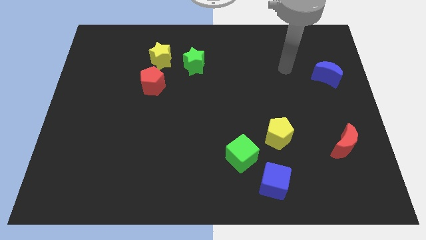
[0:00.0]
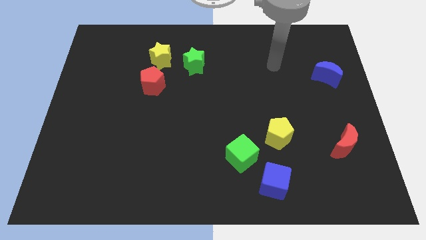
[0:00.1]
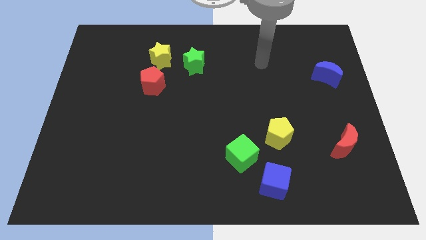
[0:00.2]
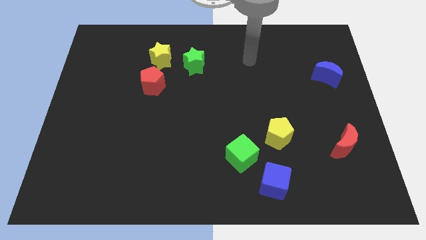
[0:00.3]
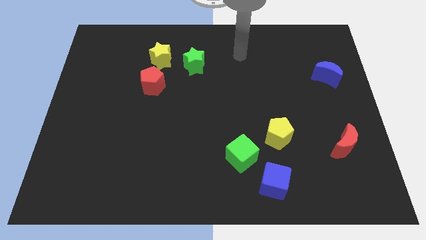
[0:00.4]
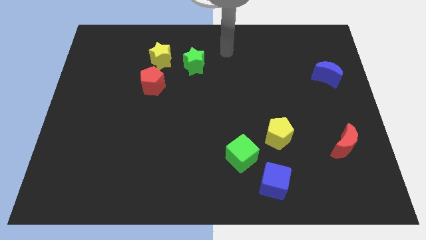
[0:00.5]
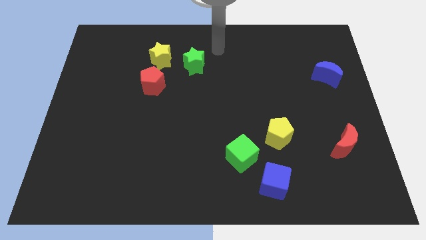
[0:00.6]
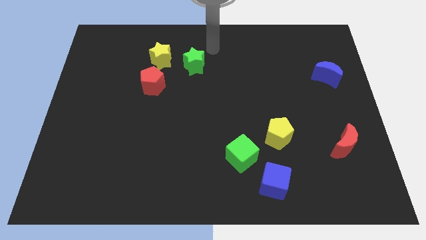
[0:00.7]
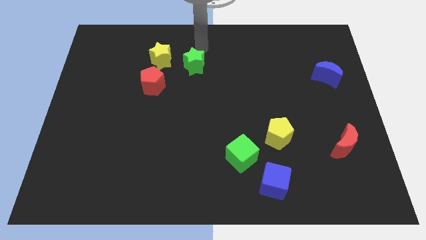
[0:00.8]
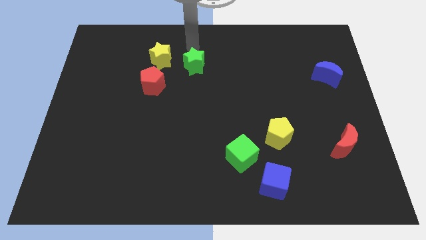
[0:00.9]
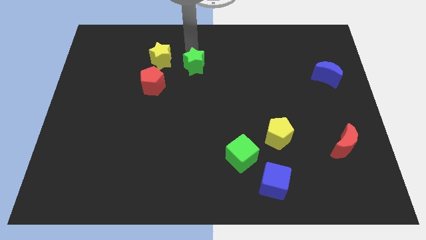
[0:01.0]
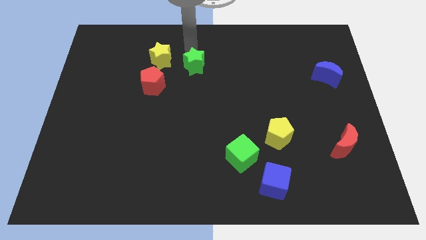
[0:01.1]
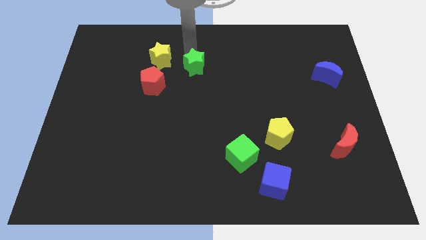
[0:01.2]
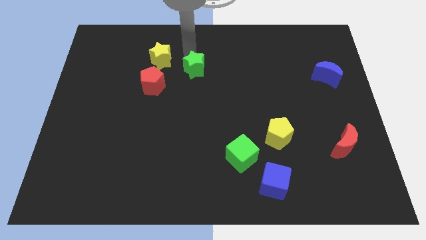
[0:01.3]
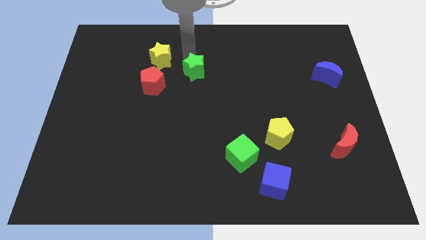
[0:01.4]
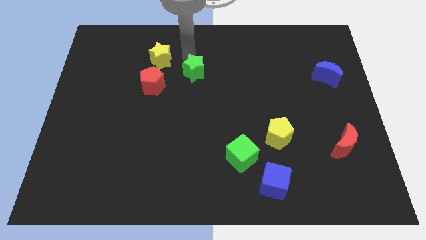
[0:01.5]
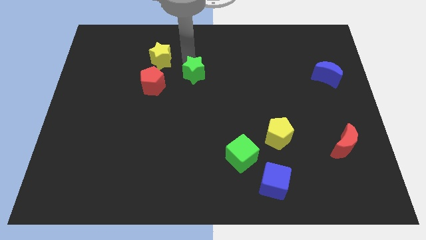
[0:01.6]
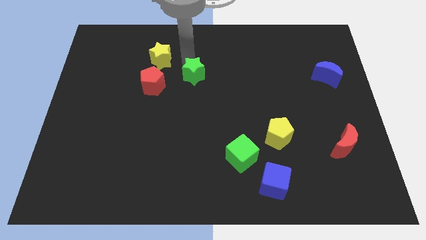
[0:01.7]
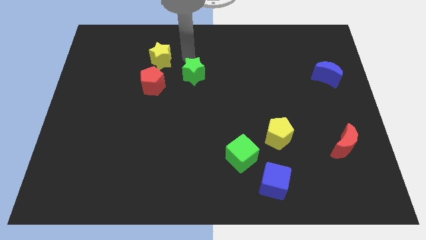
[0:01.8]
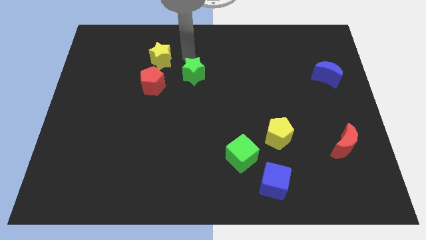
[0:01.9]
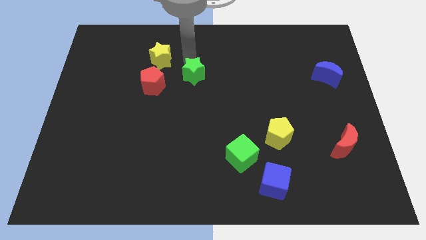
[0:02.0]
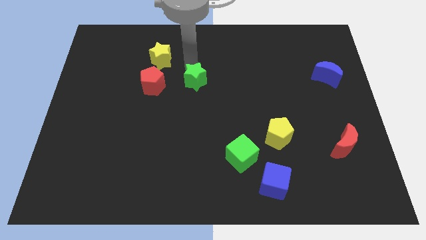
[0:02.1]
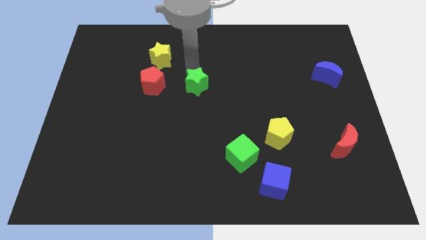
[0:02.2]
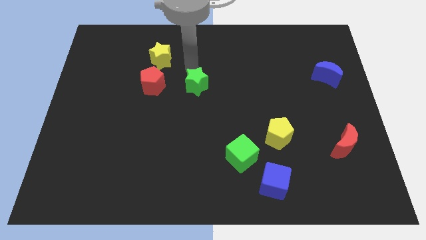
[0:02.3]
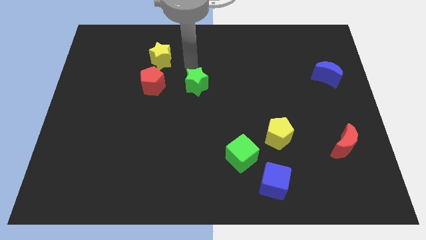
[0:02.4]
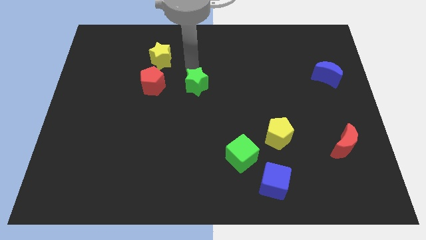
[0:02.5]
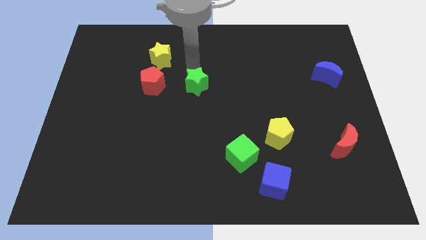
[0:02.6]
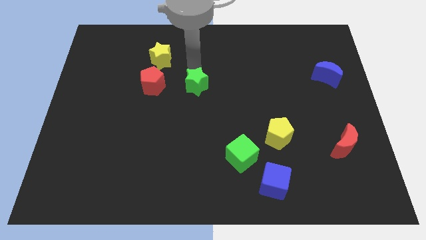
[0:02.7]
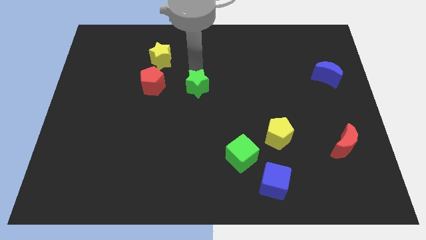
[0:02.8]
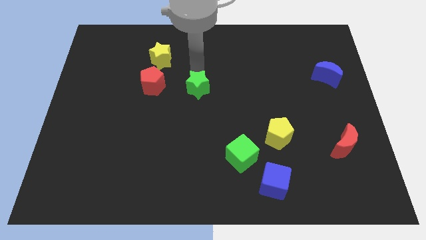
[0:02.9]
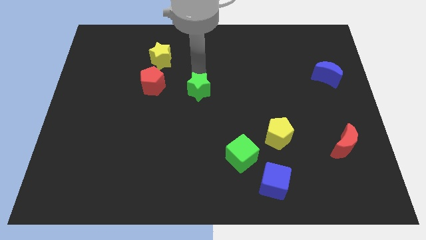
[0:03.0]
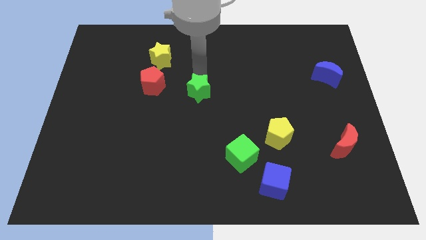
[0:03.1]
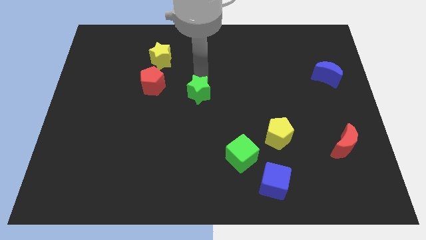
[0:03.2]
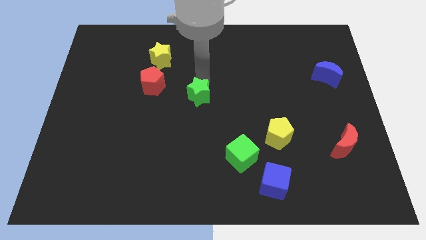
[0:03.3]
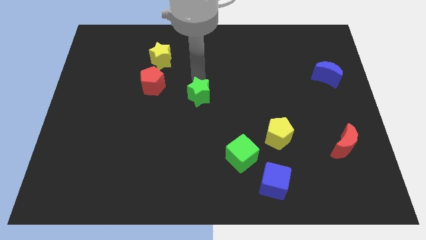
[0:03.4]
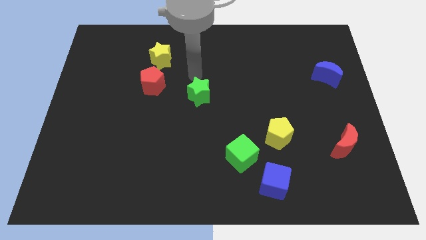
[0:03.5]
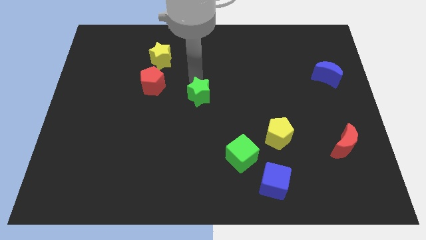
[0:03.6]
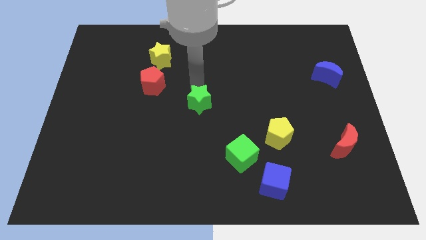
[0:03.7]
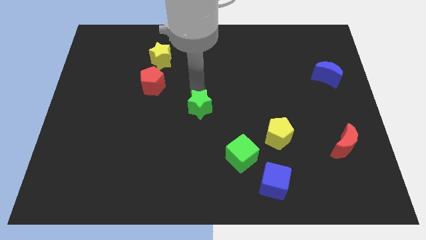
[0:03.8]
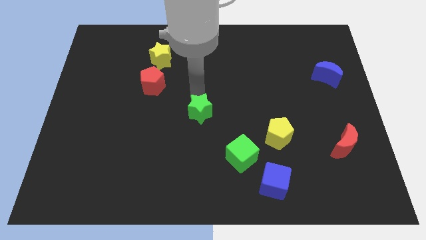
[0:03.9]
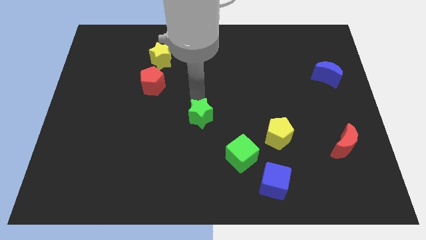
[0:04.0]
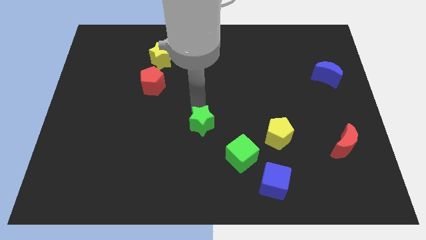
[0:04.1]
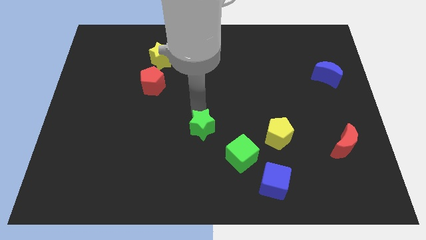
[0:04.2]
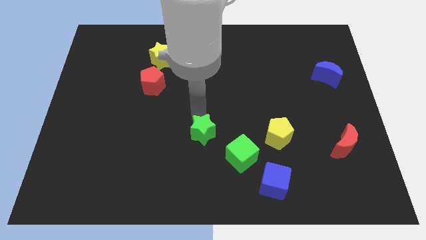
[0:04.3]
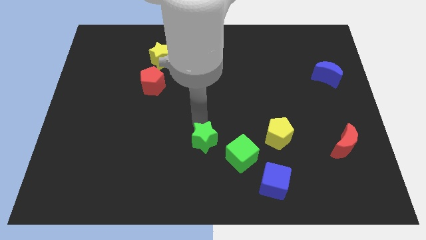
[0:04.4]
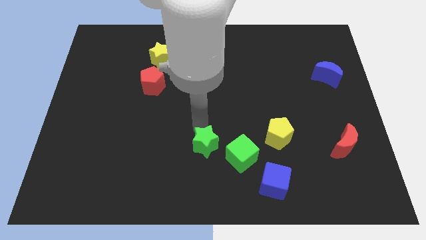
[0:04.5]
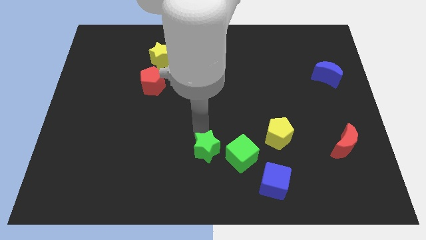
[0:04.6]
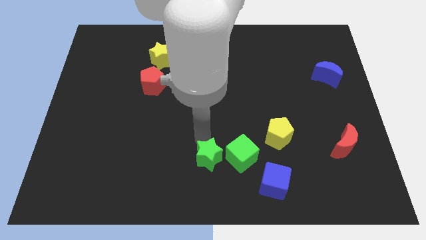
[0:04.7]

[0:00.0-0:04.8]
push the green star to the bottom

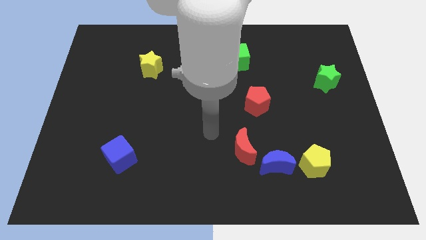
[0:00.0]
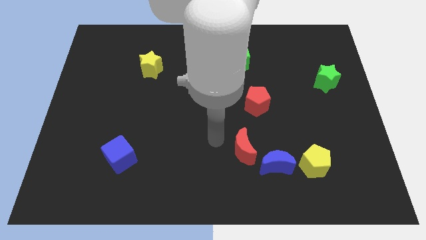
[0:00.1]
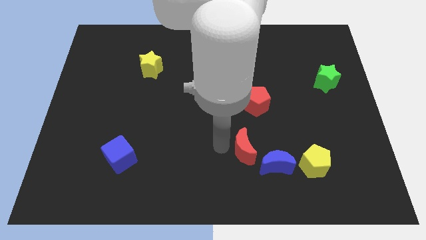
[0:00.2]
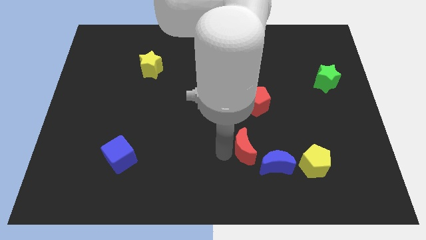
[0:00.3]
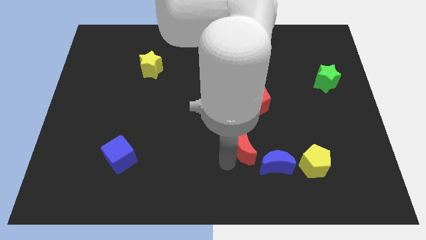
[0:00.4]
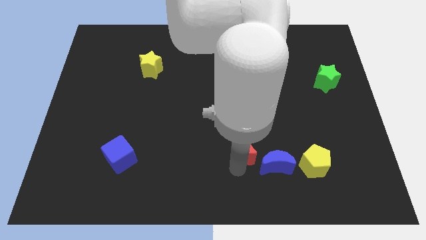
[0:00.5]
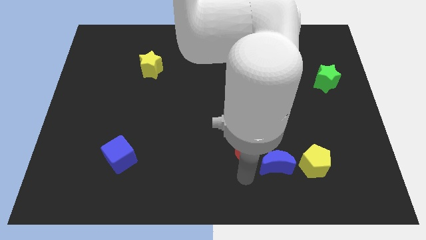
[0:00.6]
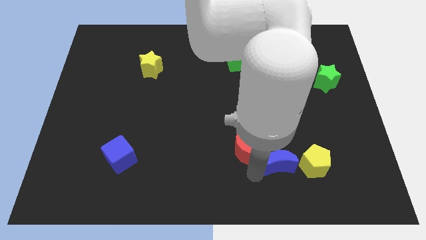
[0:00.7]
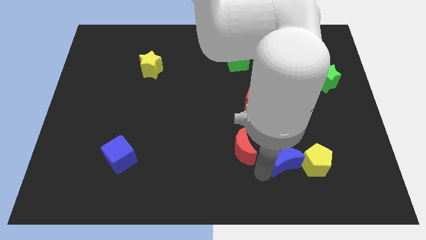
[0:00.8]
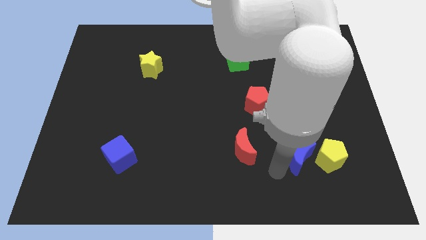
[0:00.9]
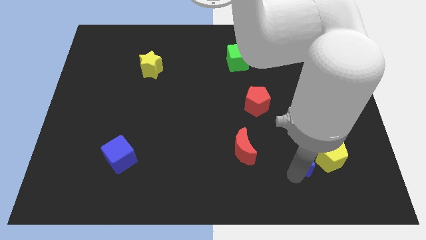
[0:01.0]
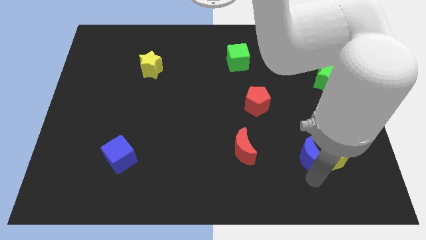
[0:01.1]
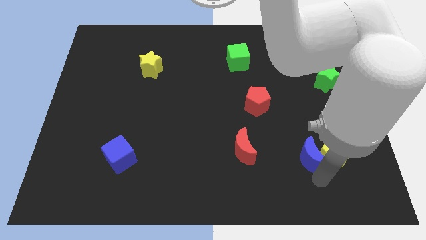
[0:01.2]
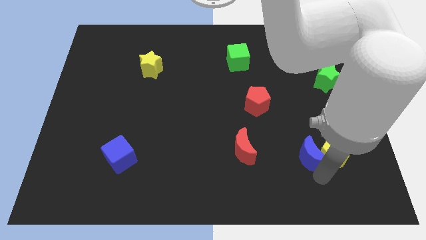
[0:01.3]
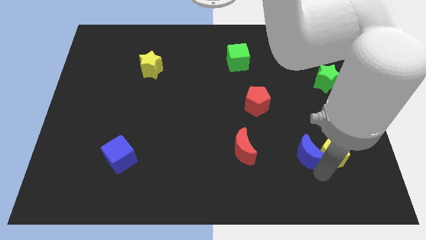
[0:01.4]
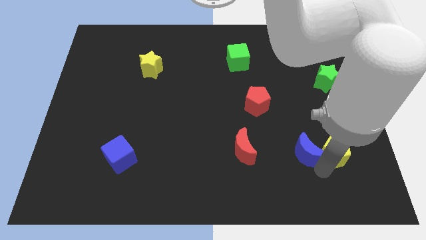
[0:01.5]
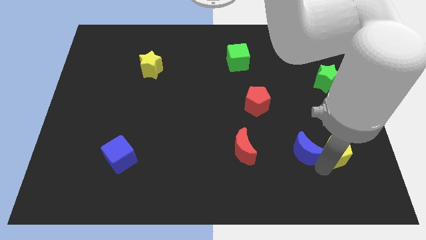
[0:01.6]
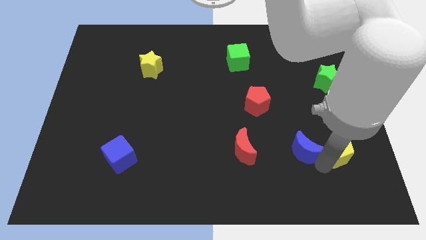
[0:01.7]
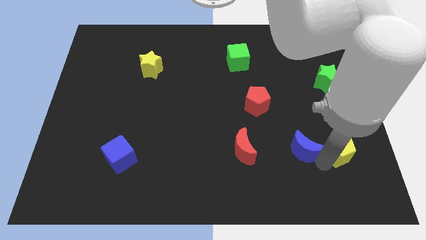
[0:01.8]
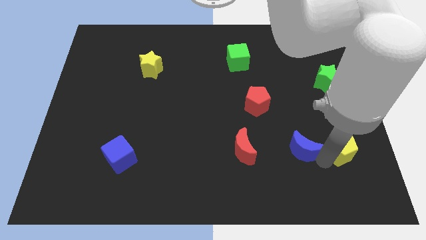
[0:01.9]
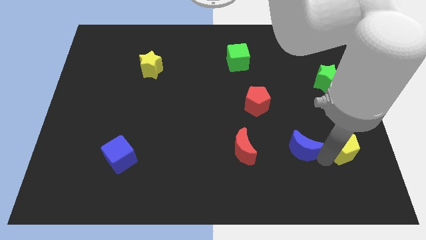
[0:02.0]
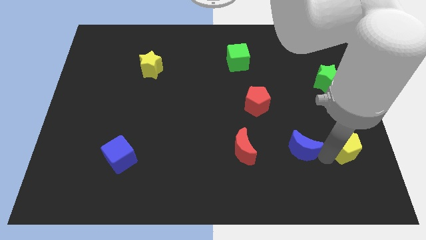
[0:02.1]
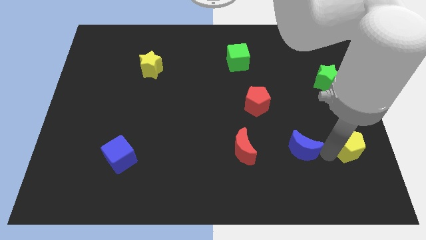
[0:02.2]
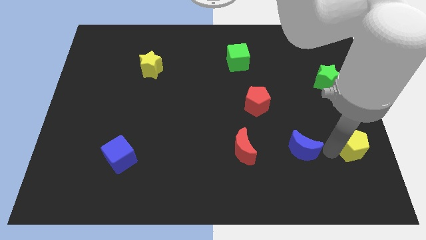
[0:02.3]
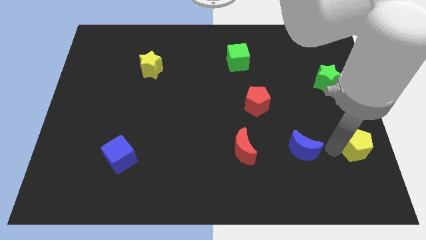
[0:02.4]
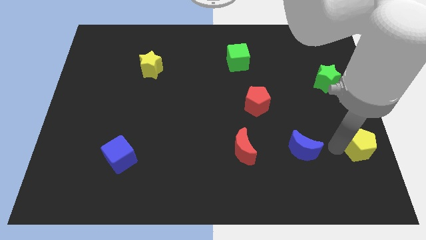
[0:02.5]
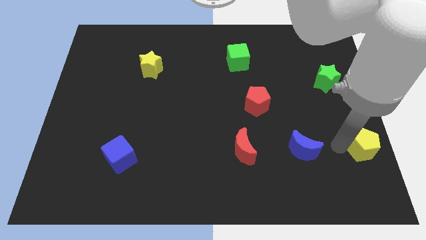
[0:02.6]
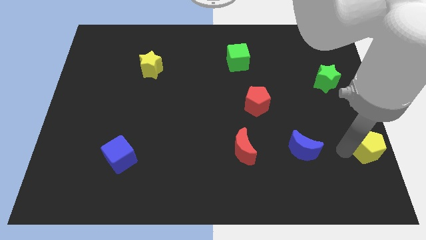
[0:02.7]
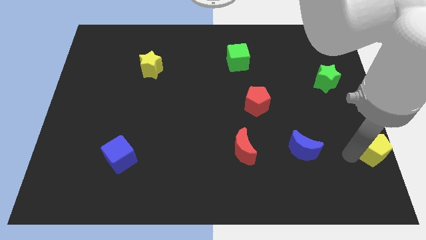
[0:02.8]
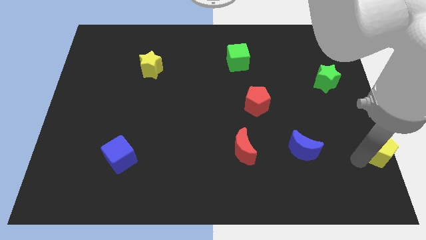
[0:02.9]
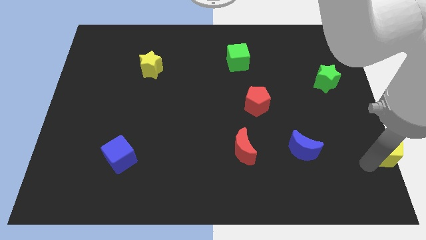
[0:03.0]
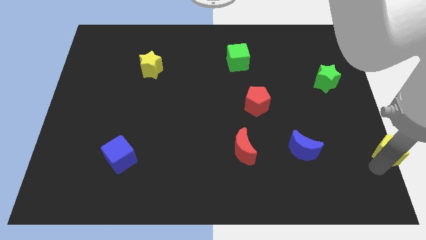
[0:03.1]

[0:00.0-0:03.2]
push the yellow pentagon to the right side
